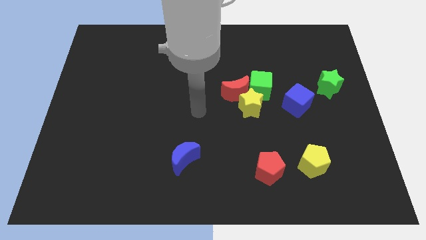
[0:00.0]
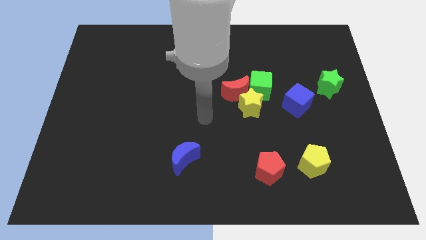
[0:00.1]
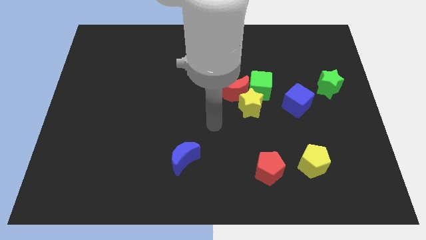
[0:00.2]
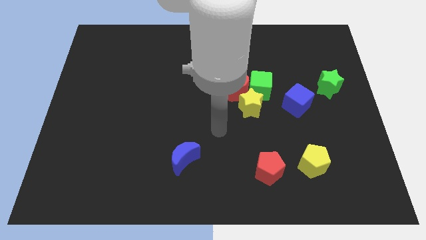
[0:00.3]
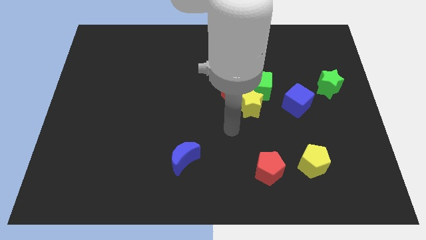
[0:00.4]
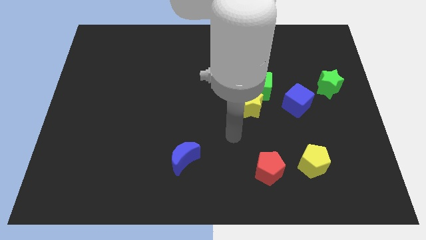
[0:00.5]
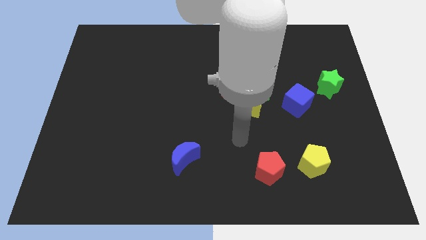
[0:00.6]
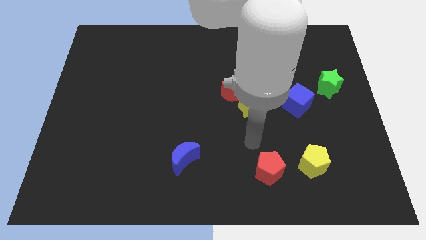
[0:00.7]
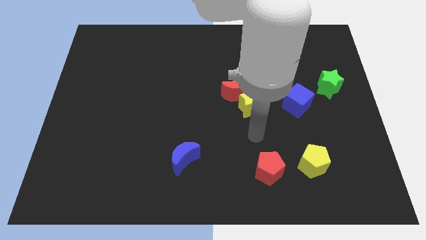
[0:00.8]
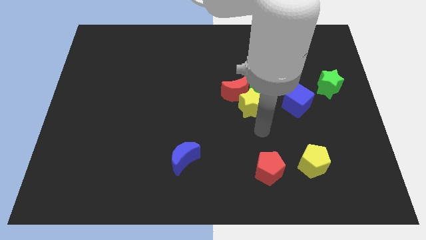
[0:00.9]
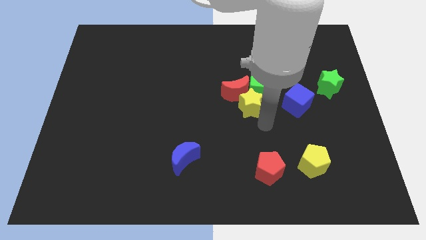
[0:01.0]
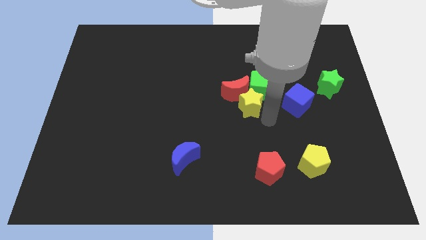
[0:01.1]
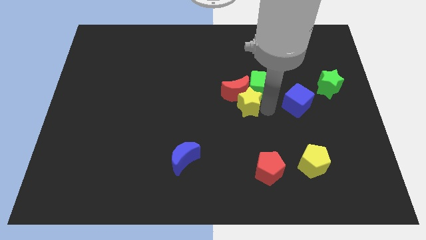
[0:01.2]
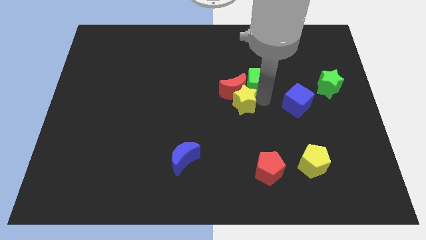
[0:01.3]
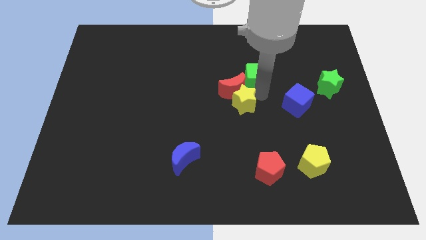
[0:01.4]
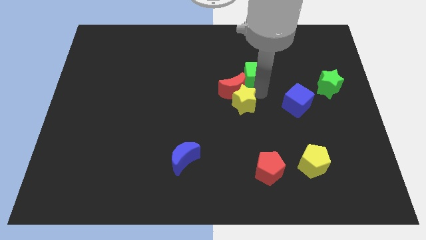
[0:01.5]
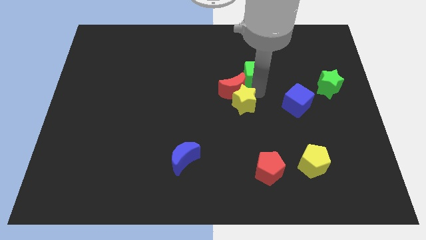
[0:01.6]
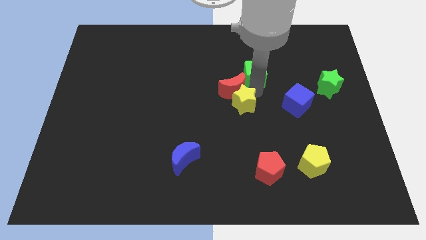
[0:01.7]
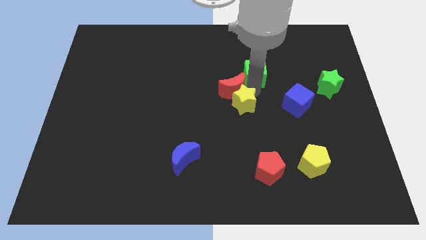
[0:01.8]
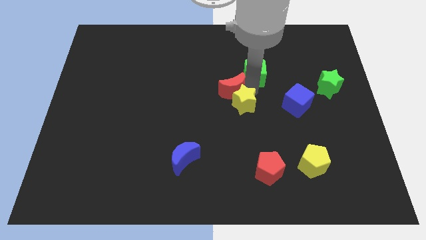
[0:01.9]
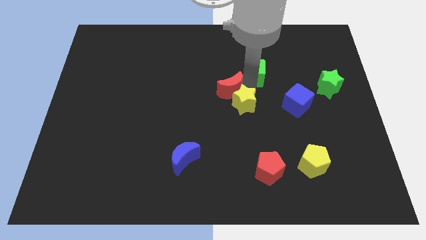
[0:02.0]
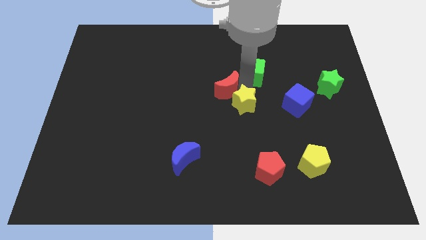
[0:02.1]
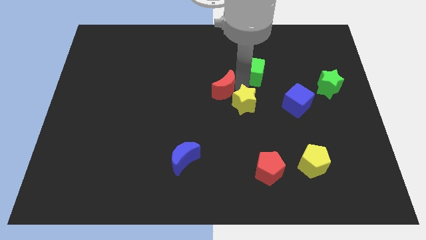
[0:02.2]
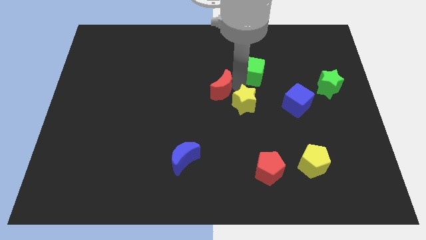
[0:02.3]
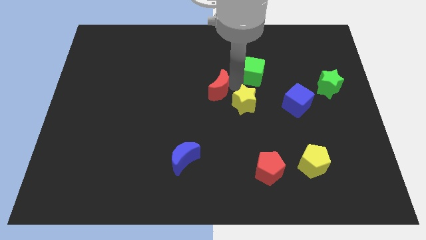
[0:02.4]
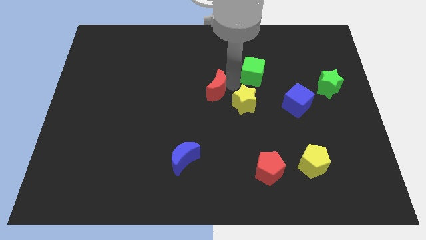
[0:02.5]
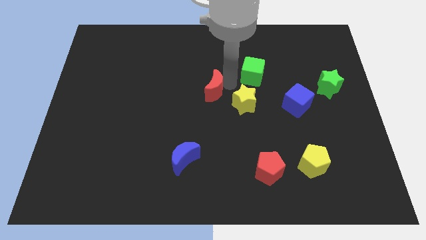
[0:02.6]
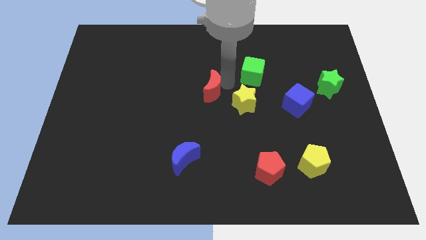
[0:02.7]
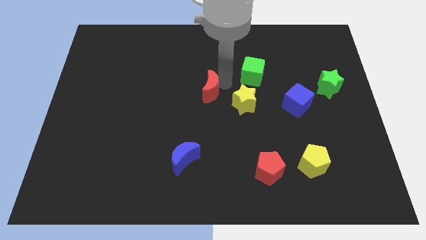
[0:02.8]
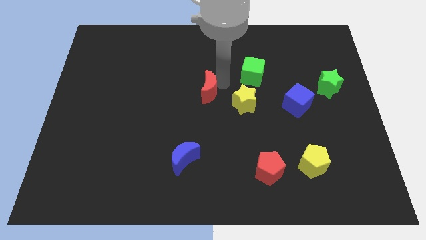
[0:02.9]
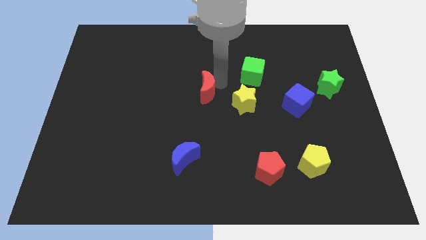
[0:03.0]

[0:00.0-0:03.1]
move the red moon away from the yellow star and green cube

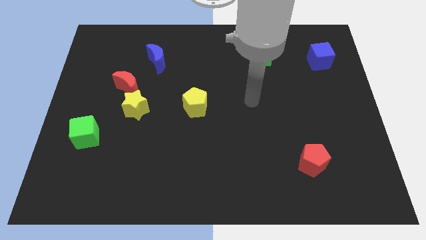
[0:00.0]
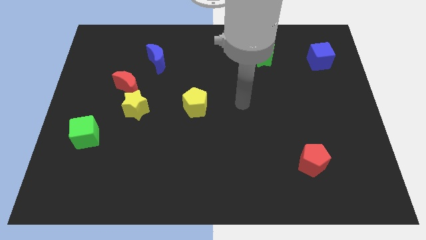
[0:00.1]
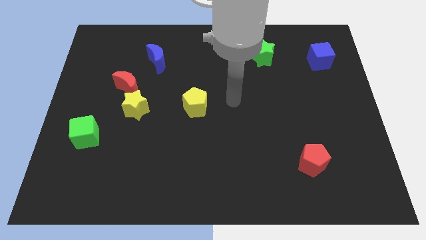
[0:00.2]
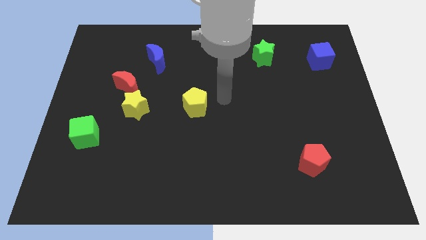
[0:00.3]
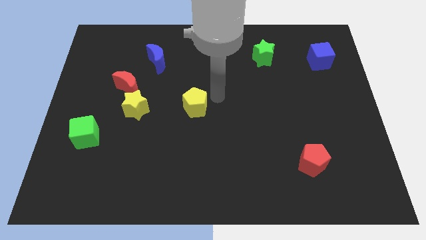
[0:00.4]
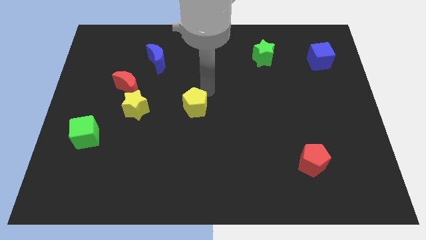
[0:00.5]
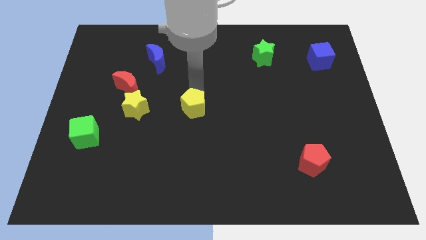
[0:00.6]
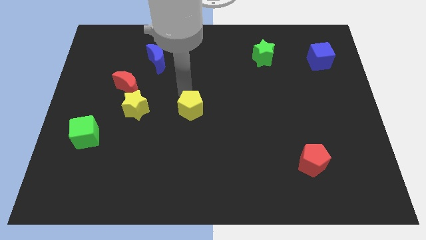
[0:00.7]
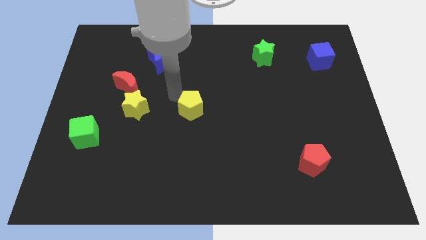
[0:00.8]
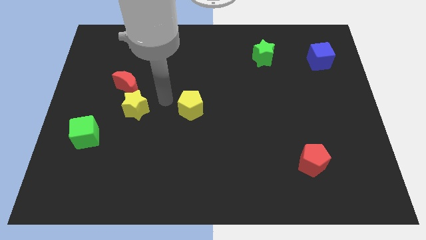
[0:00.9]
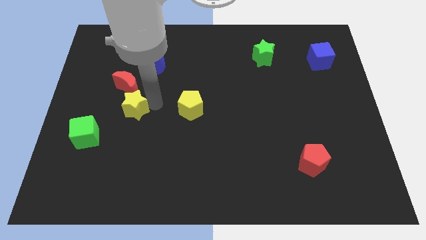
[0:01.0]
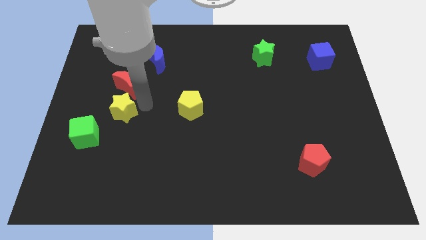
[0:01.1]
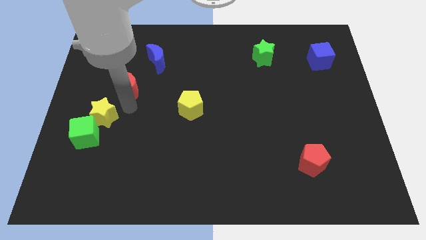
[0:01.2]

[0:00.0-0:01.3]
separate the red moon from the yellow star

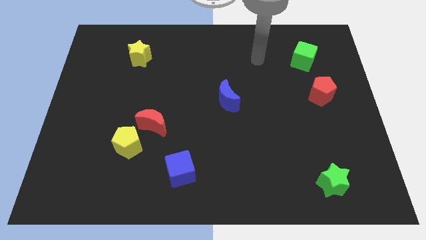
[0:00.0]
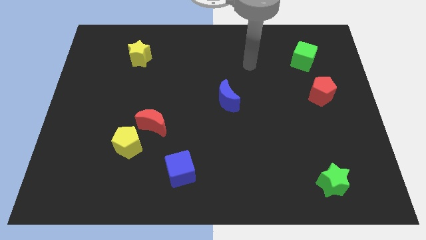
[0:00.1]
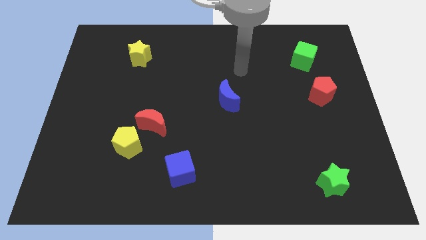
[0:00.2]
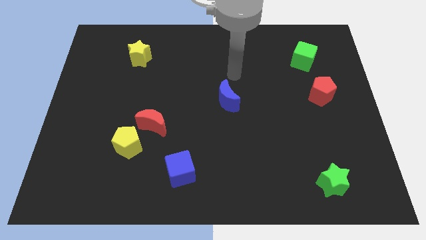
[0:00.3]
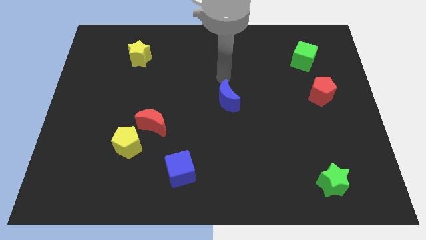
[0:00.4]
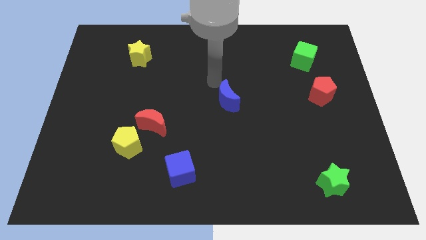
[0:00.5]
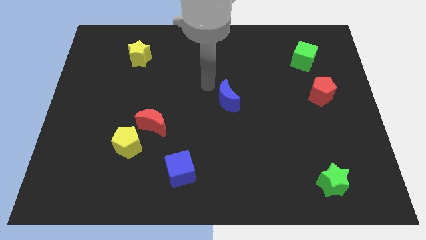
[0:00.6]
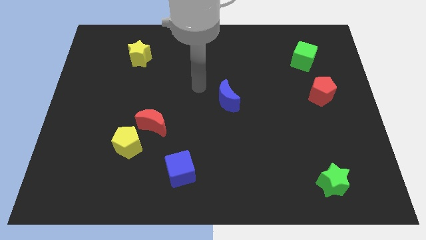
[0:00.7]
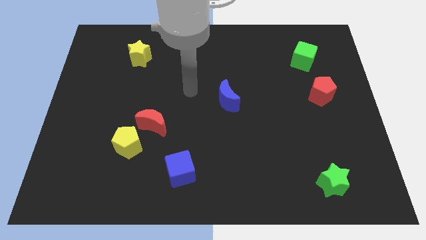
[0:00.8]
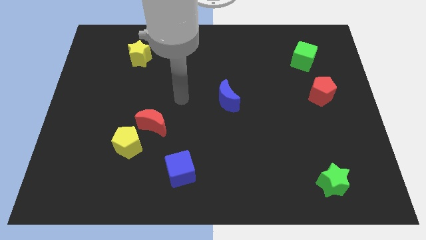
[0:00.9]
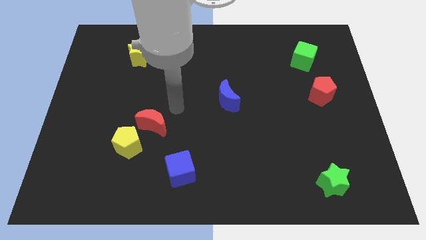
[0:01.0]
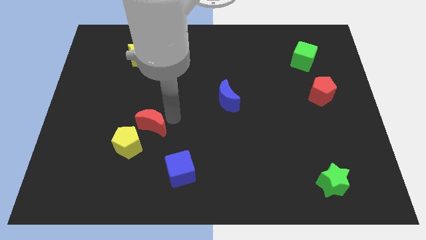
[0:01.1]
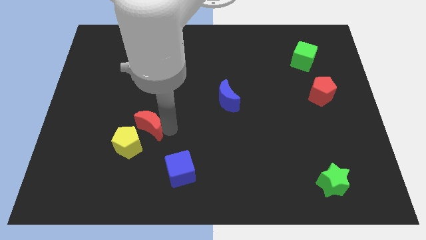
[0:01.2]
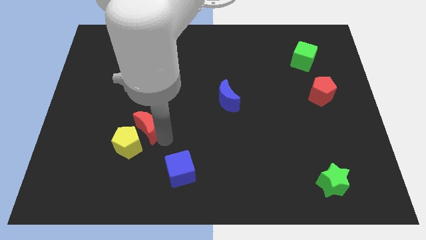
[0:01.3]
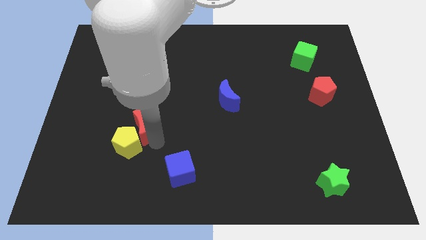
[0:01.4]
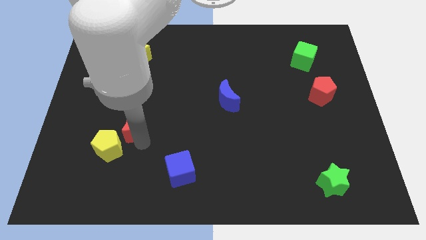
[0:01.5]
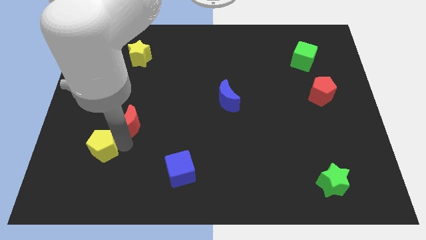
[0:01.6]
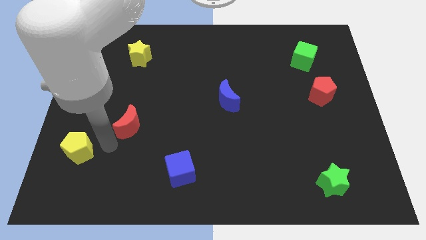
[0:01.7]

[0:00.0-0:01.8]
separate the red moon from the yellow pentagon

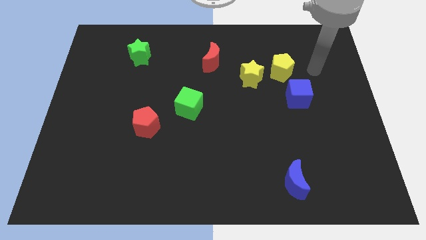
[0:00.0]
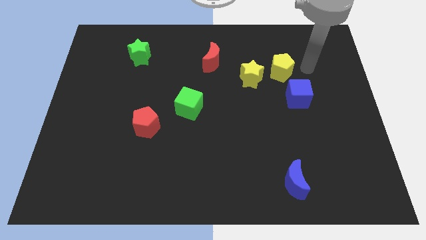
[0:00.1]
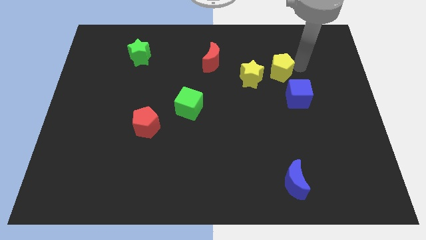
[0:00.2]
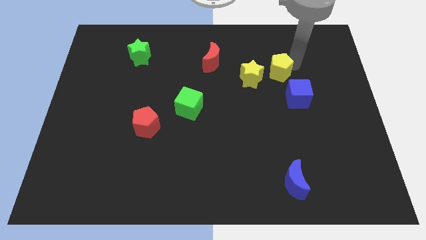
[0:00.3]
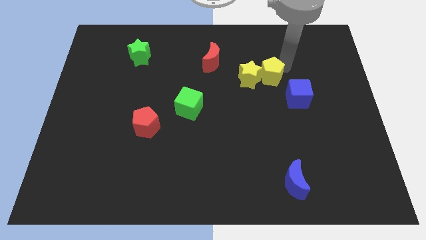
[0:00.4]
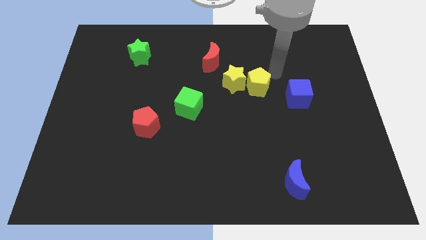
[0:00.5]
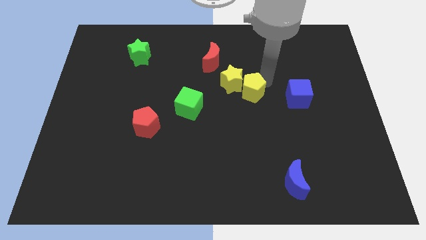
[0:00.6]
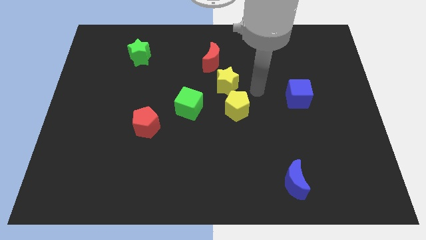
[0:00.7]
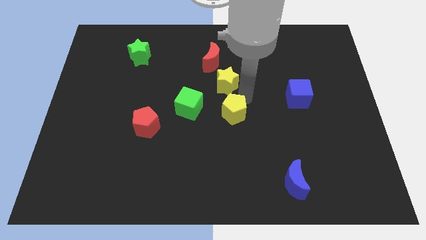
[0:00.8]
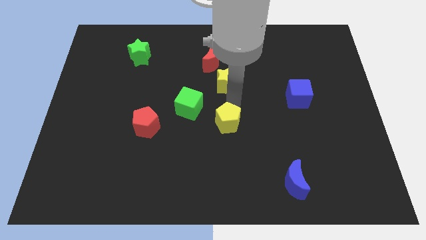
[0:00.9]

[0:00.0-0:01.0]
move the yellow star away from the yellow pentagon

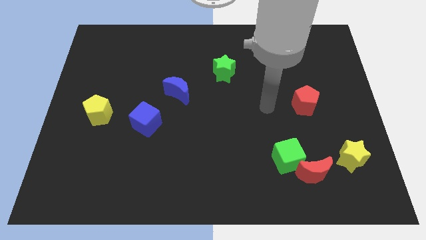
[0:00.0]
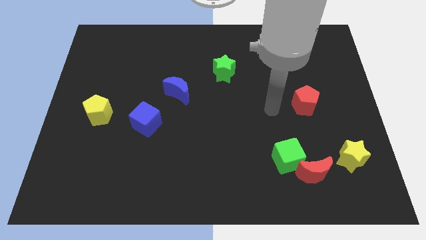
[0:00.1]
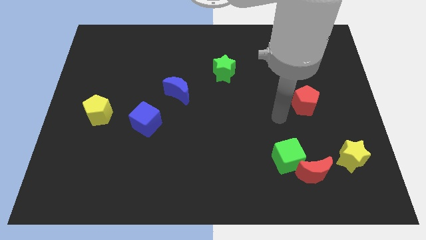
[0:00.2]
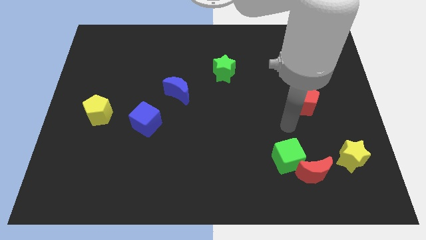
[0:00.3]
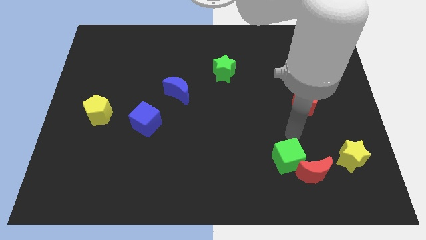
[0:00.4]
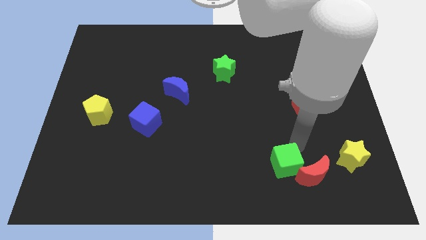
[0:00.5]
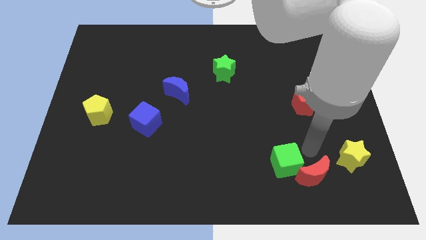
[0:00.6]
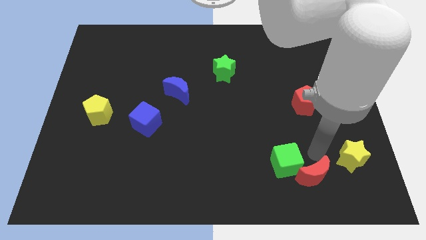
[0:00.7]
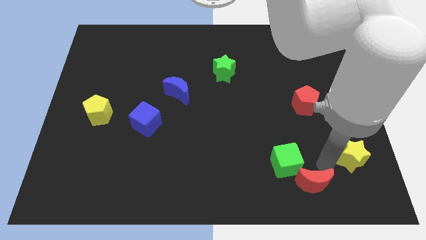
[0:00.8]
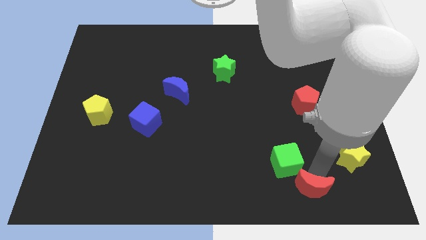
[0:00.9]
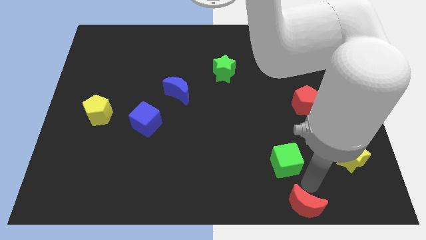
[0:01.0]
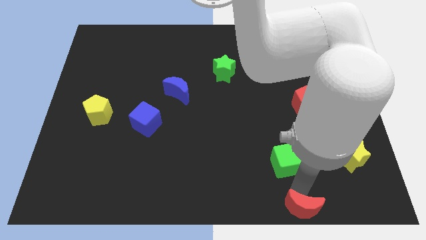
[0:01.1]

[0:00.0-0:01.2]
separate the green cube from the red moon

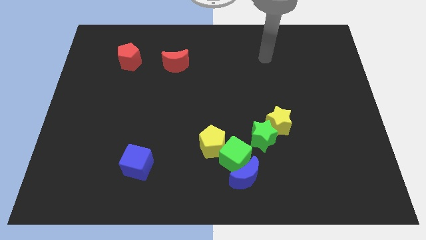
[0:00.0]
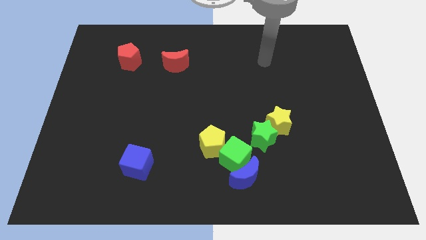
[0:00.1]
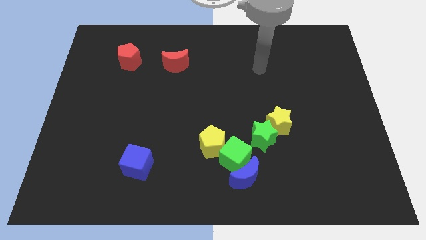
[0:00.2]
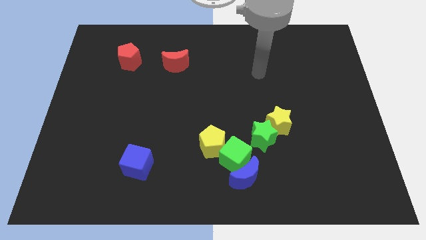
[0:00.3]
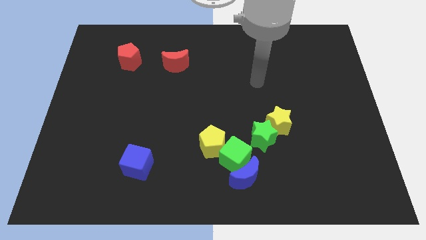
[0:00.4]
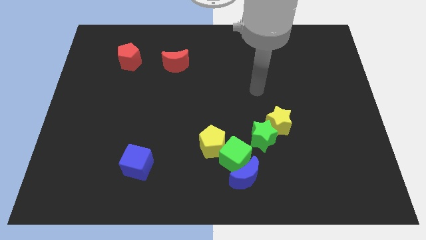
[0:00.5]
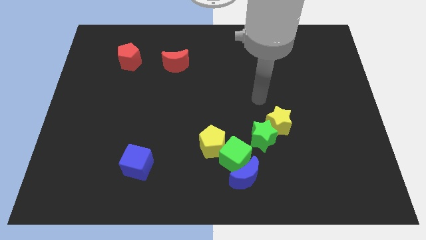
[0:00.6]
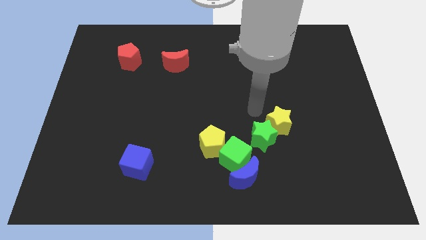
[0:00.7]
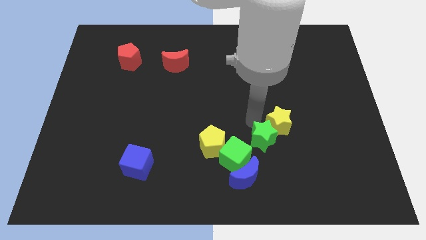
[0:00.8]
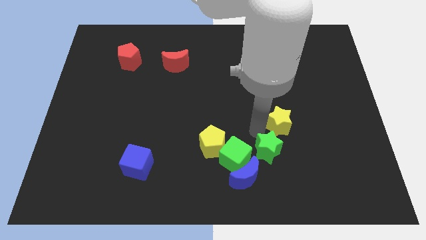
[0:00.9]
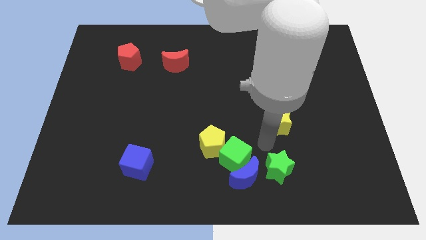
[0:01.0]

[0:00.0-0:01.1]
pull the yellow star apart from the green star
